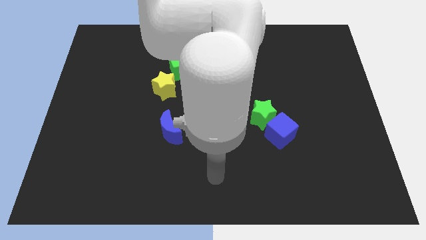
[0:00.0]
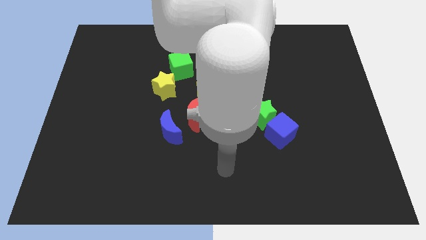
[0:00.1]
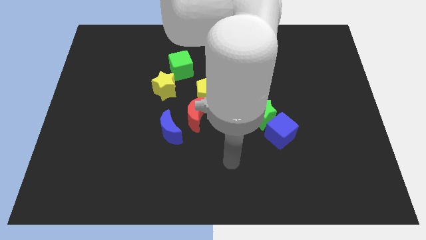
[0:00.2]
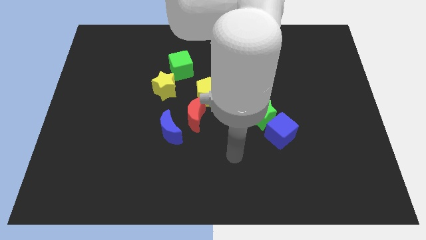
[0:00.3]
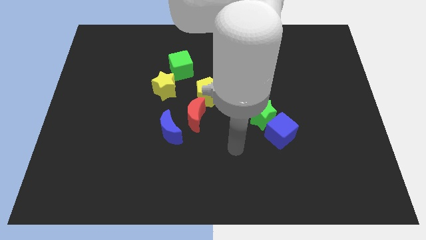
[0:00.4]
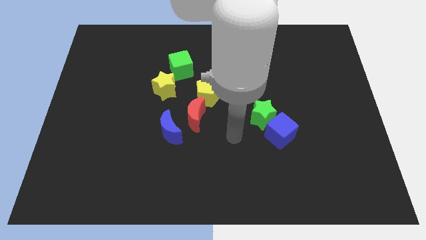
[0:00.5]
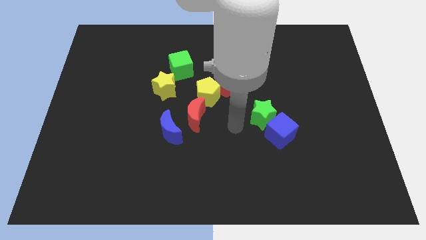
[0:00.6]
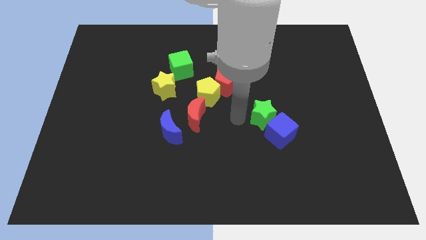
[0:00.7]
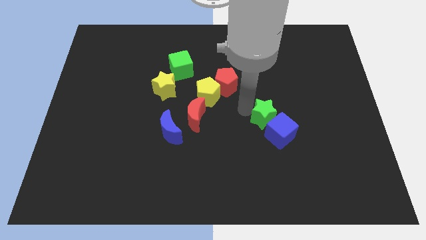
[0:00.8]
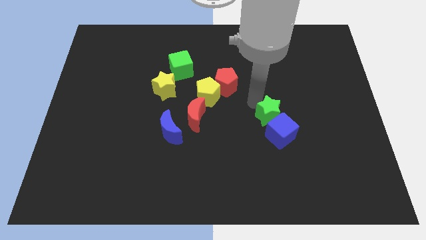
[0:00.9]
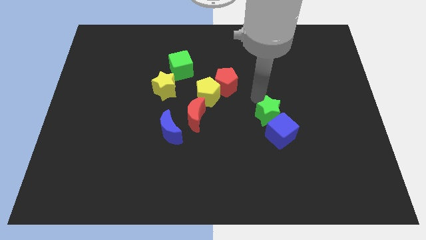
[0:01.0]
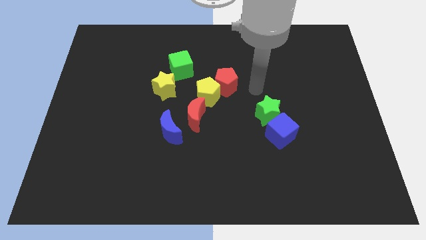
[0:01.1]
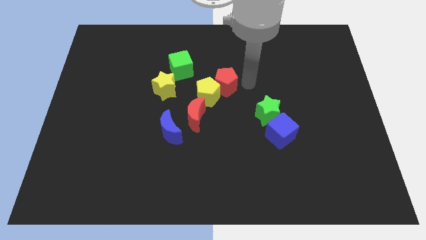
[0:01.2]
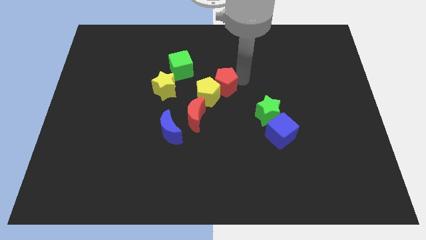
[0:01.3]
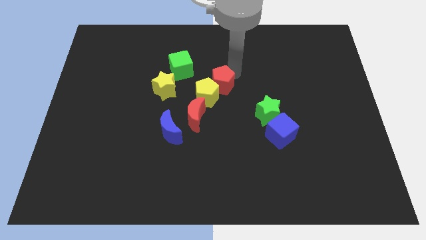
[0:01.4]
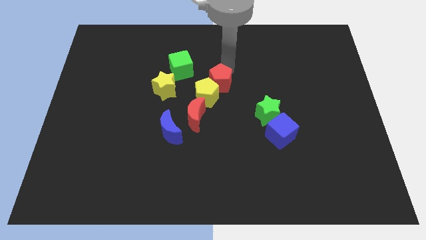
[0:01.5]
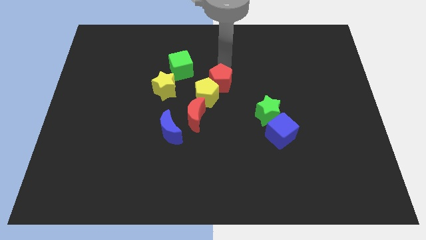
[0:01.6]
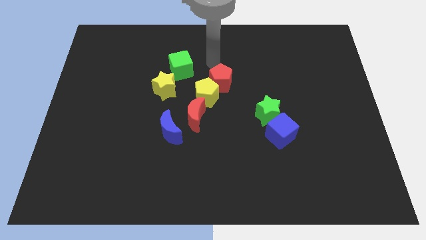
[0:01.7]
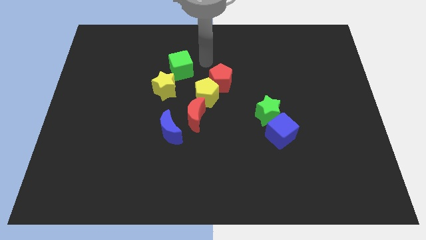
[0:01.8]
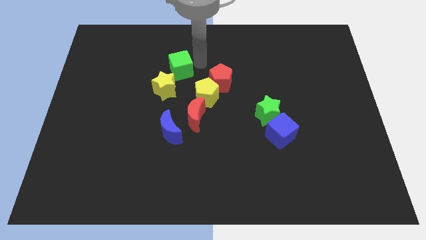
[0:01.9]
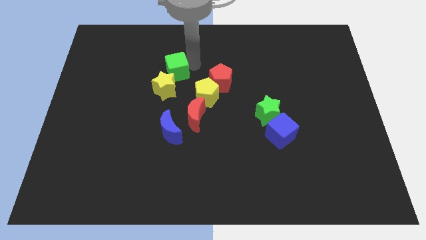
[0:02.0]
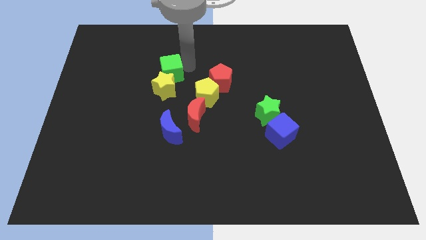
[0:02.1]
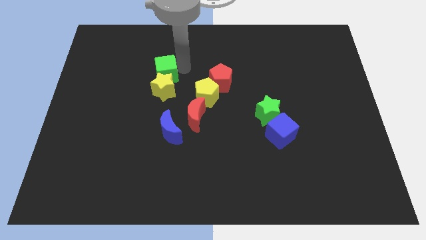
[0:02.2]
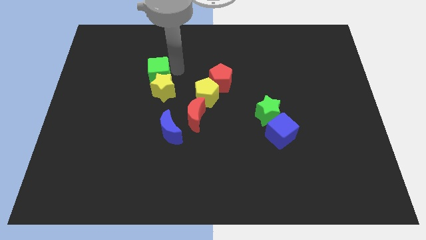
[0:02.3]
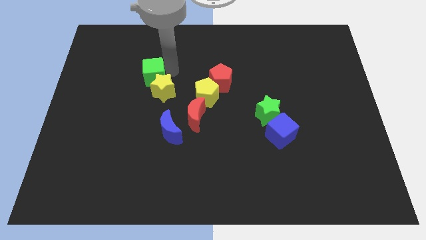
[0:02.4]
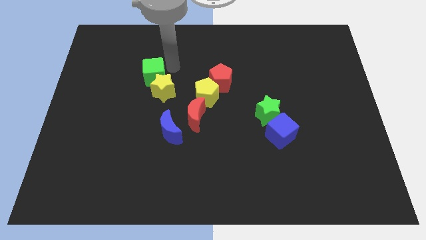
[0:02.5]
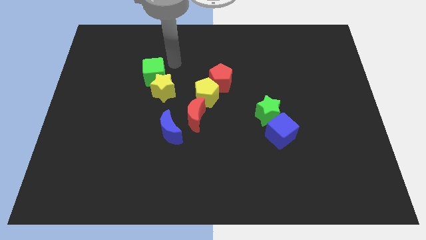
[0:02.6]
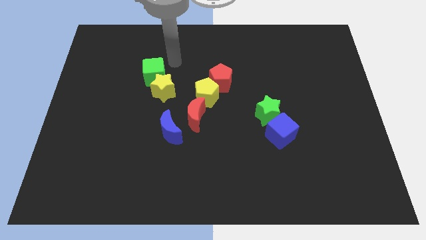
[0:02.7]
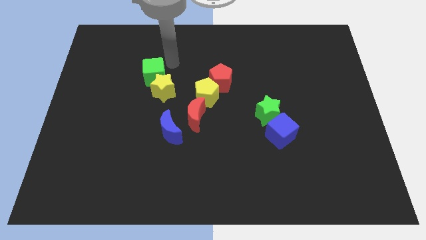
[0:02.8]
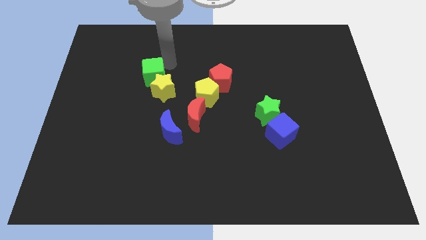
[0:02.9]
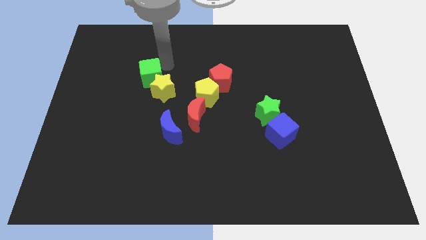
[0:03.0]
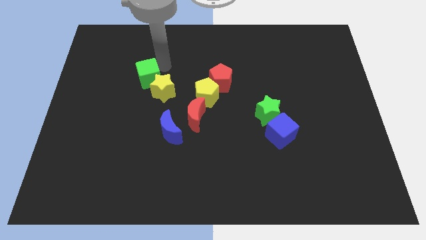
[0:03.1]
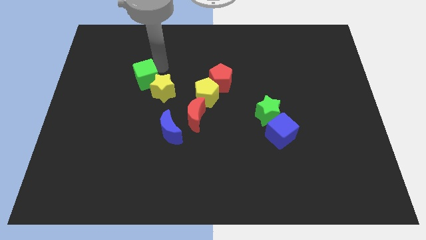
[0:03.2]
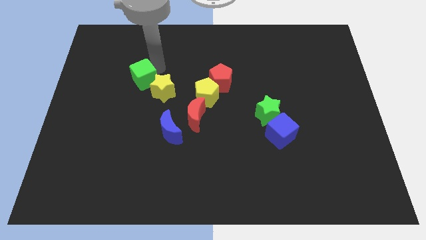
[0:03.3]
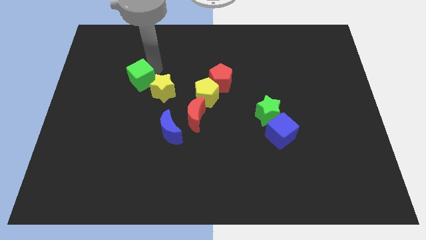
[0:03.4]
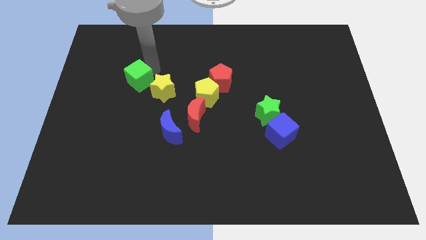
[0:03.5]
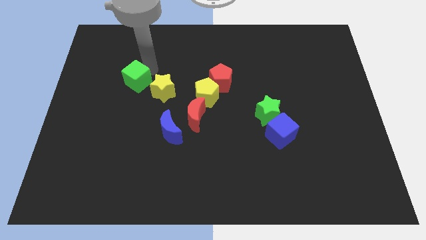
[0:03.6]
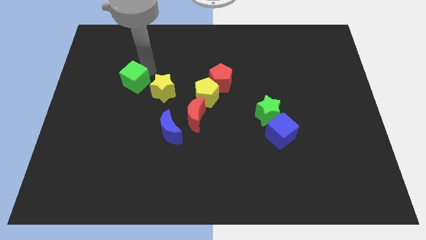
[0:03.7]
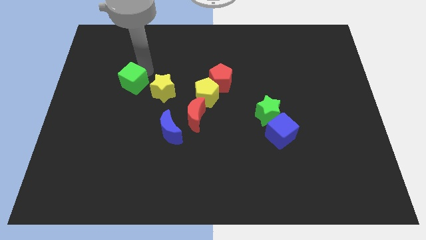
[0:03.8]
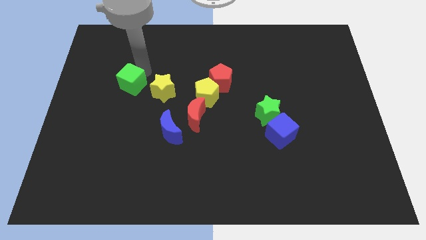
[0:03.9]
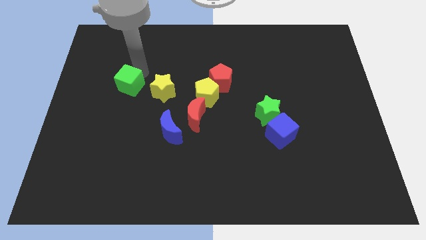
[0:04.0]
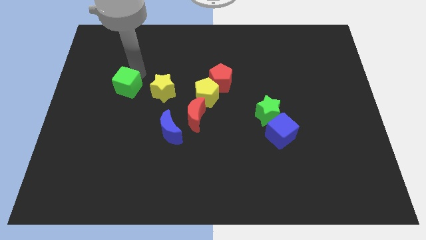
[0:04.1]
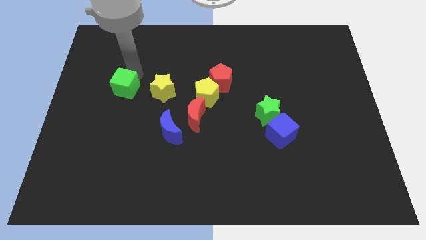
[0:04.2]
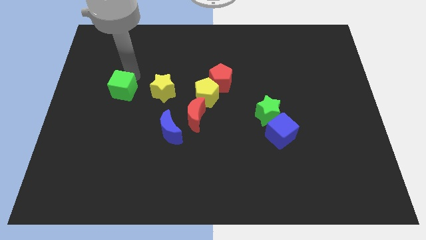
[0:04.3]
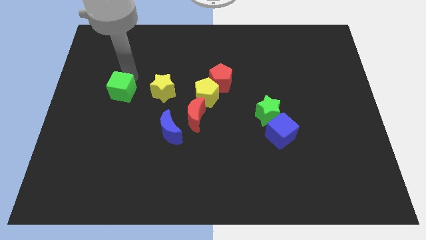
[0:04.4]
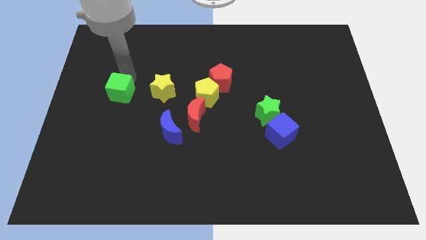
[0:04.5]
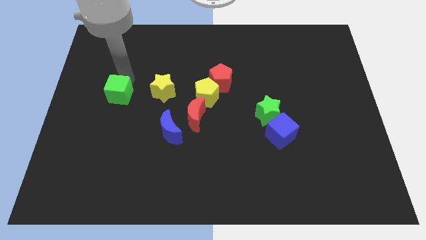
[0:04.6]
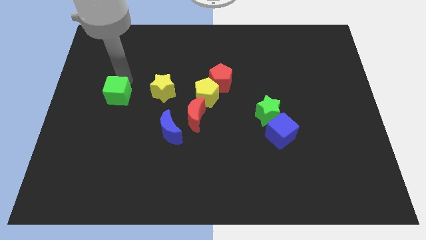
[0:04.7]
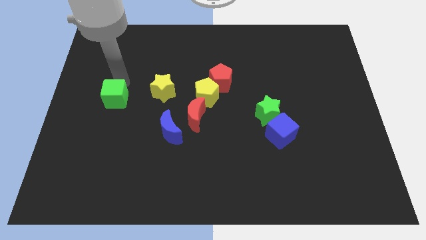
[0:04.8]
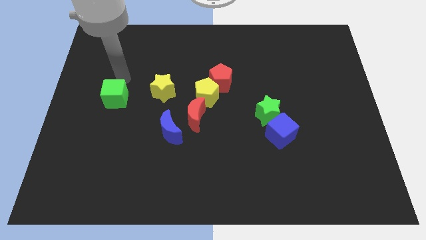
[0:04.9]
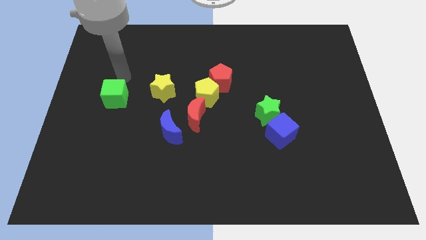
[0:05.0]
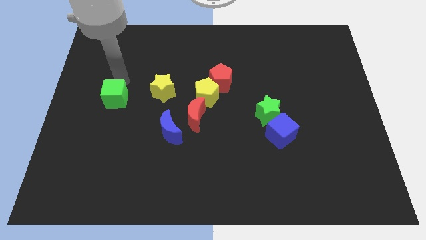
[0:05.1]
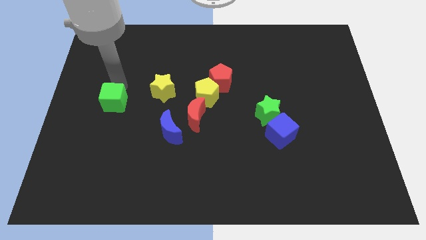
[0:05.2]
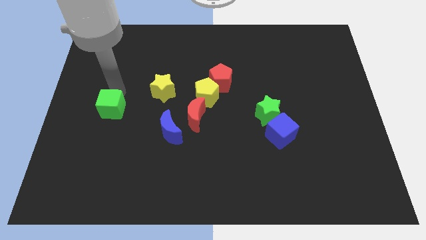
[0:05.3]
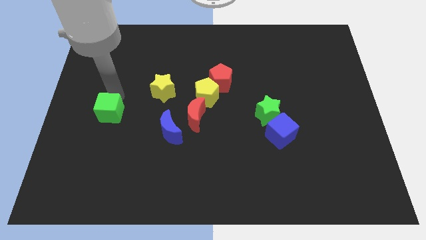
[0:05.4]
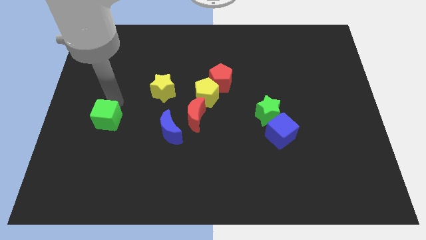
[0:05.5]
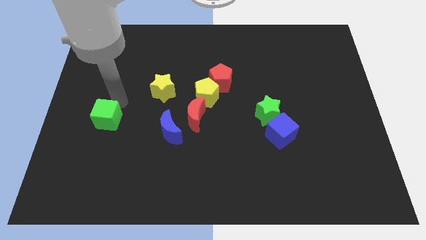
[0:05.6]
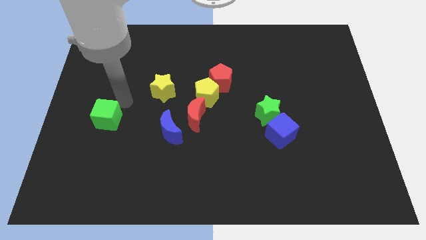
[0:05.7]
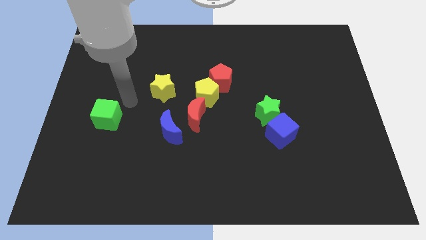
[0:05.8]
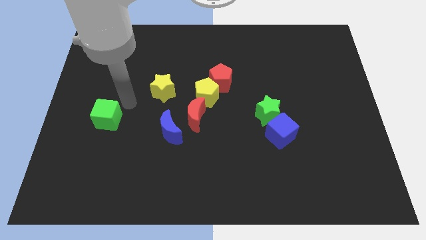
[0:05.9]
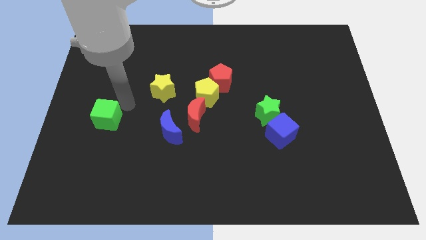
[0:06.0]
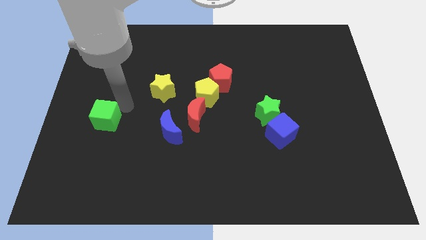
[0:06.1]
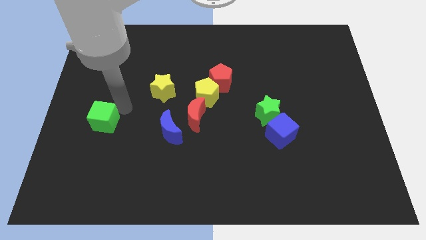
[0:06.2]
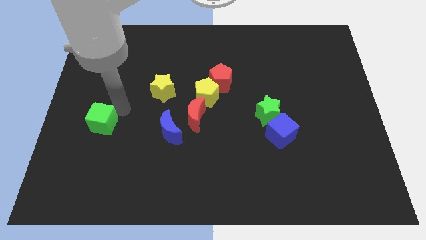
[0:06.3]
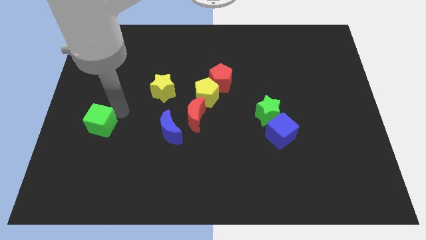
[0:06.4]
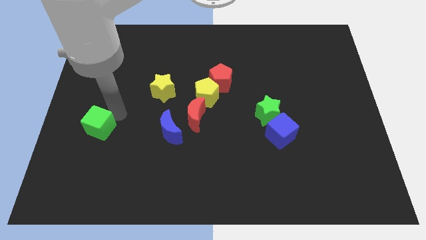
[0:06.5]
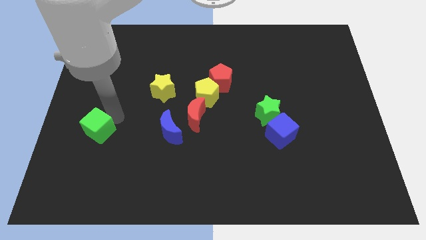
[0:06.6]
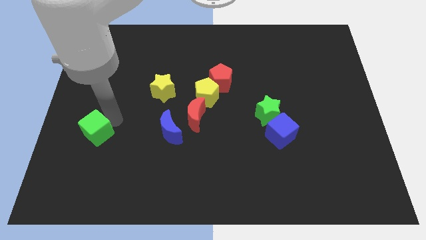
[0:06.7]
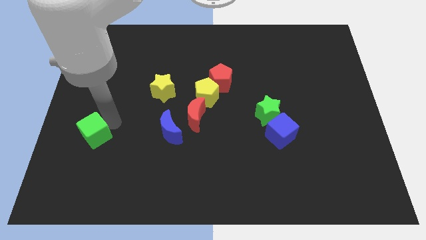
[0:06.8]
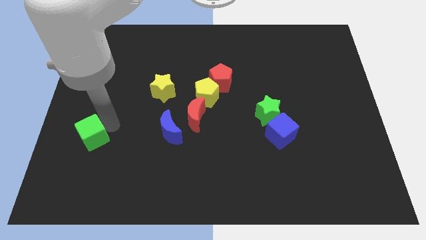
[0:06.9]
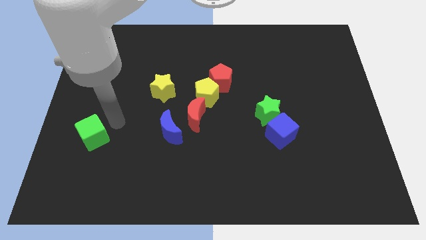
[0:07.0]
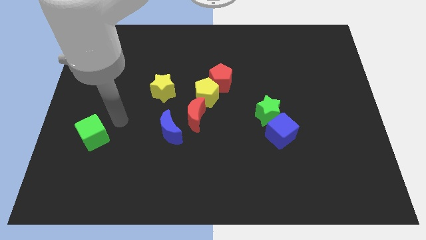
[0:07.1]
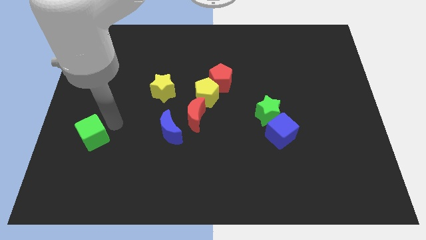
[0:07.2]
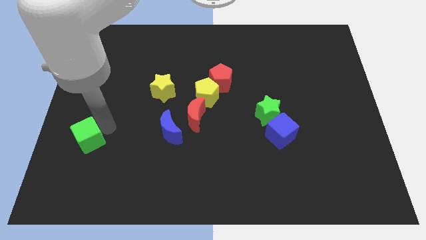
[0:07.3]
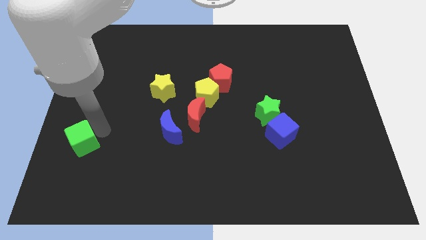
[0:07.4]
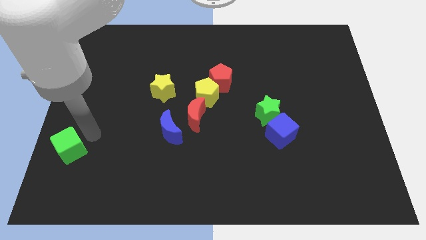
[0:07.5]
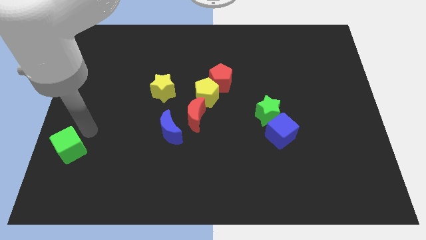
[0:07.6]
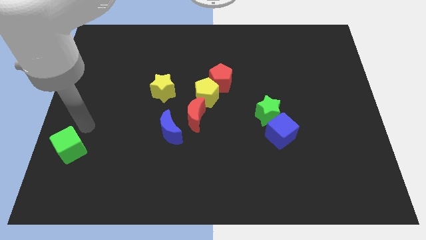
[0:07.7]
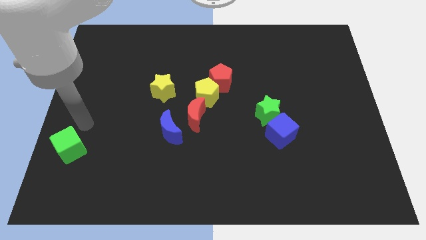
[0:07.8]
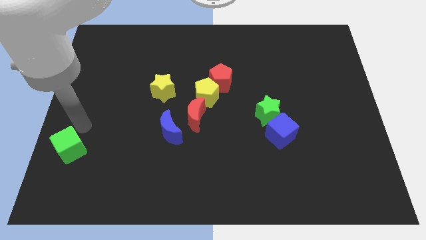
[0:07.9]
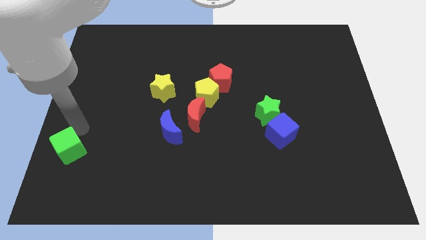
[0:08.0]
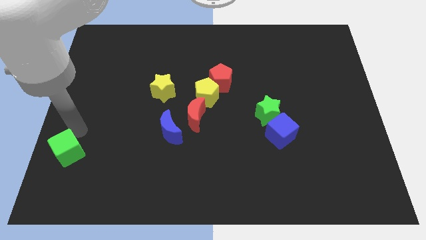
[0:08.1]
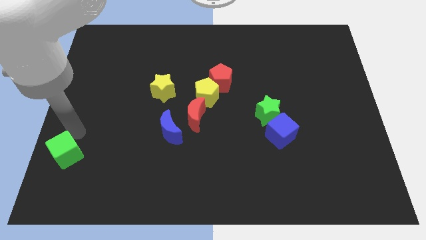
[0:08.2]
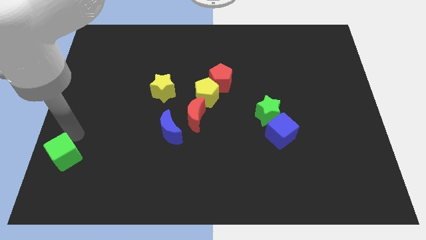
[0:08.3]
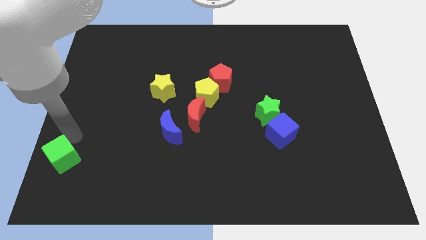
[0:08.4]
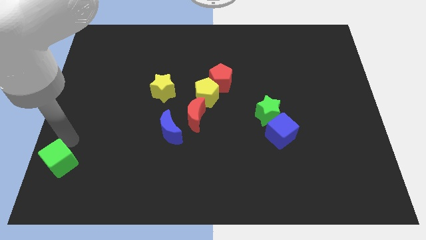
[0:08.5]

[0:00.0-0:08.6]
push the green cube to the bottom left
